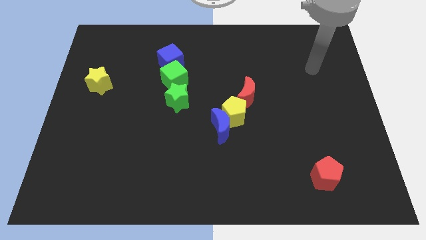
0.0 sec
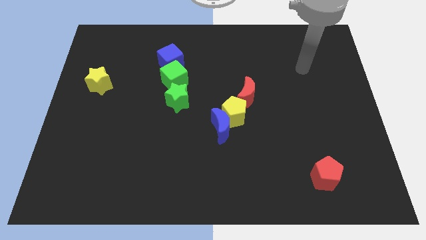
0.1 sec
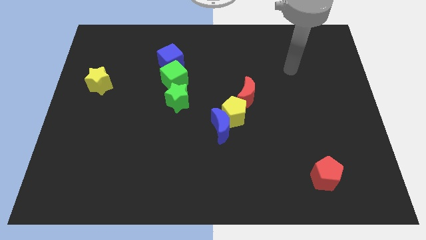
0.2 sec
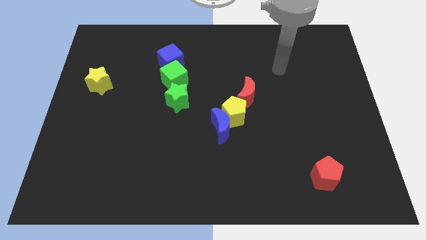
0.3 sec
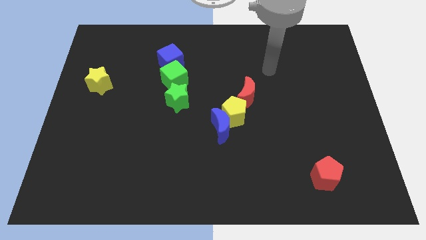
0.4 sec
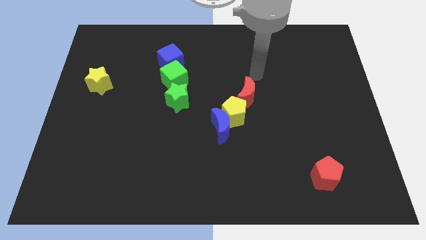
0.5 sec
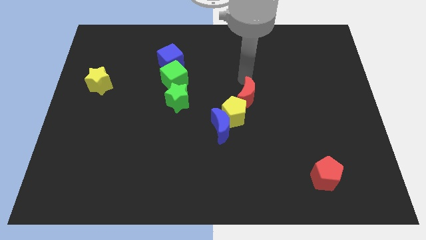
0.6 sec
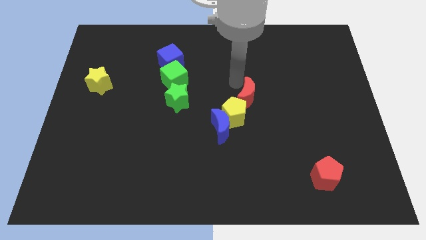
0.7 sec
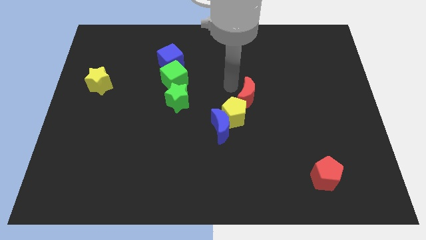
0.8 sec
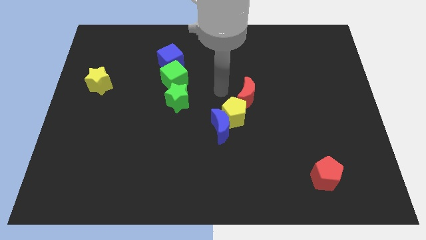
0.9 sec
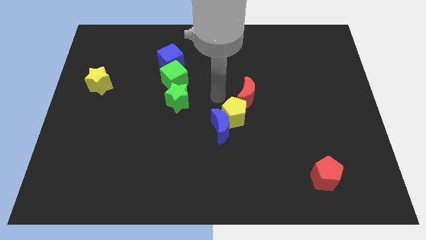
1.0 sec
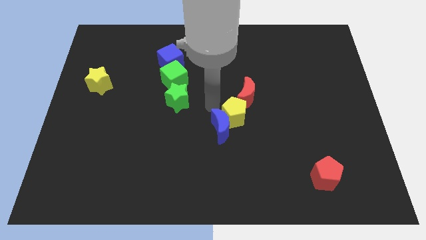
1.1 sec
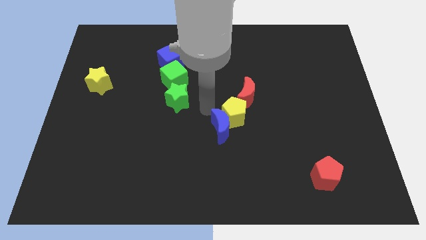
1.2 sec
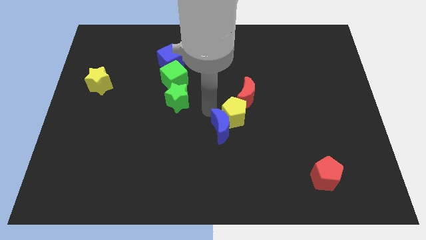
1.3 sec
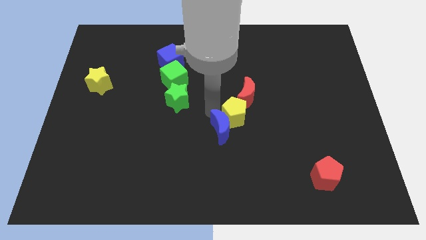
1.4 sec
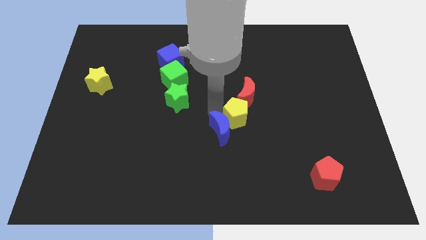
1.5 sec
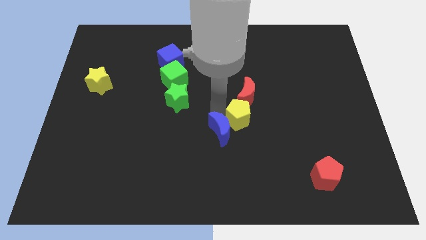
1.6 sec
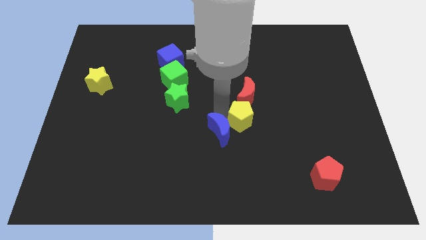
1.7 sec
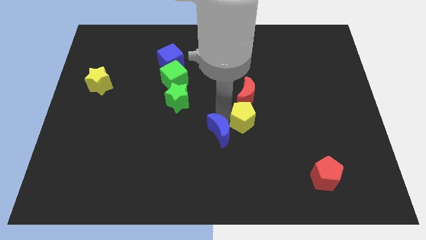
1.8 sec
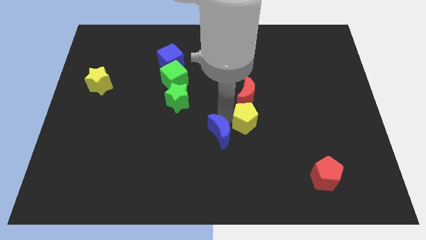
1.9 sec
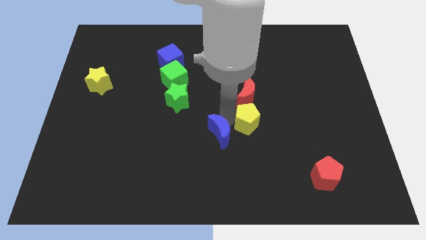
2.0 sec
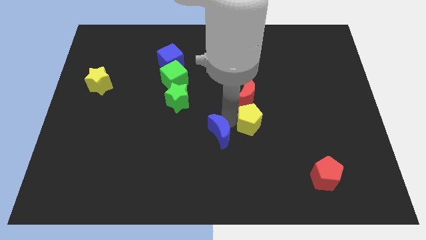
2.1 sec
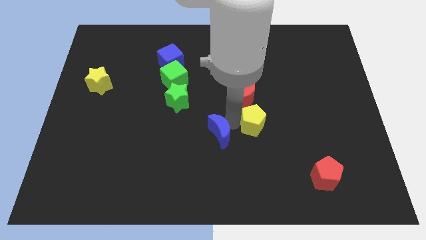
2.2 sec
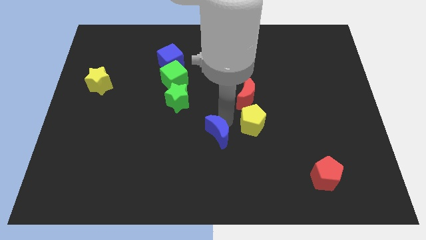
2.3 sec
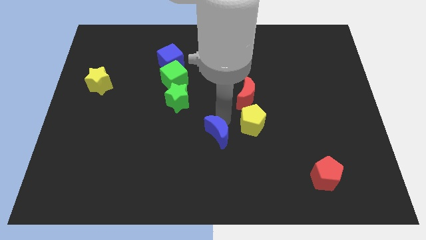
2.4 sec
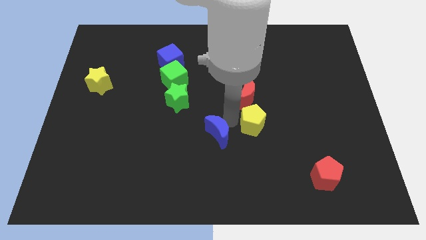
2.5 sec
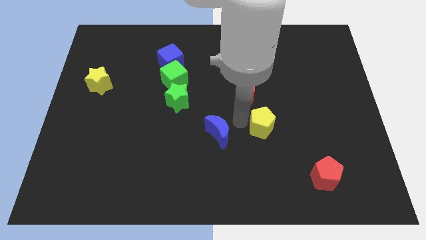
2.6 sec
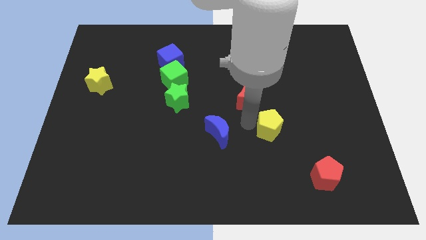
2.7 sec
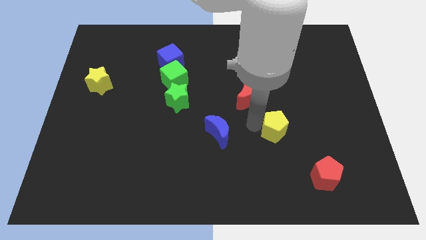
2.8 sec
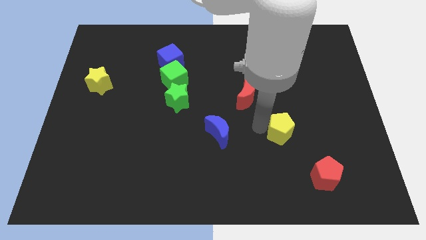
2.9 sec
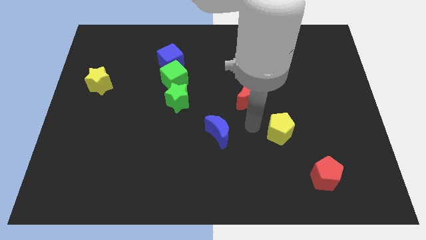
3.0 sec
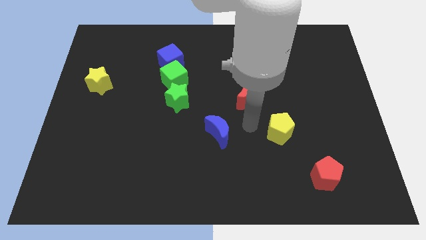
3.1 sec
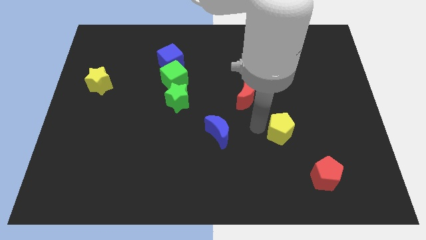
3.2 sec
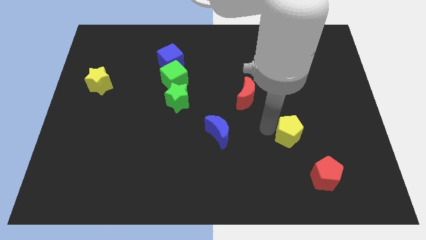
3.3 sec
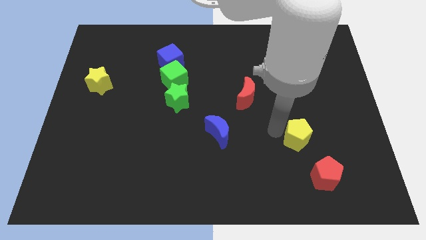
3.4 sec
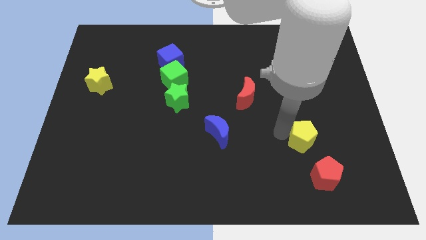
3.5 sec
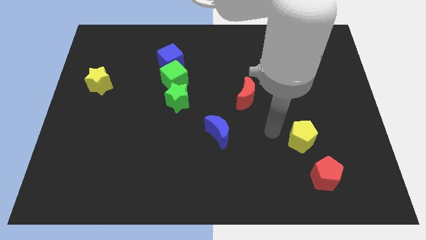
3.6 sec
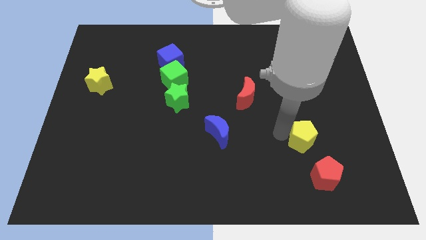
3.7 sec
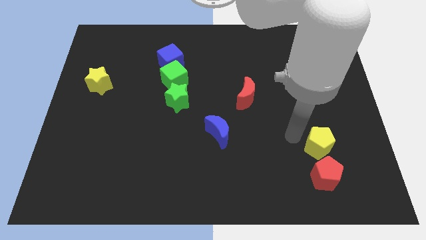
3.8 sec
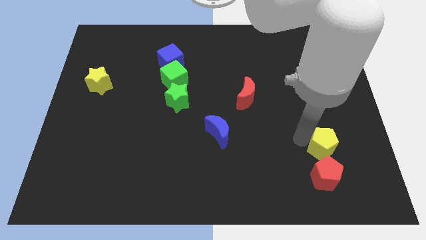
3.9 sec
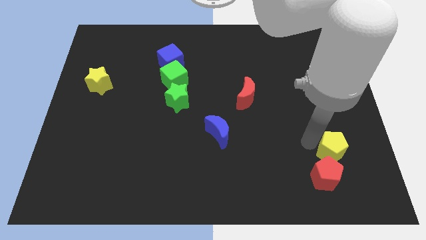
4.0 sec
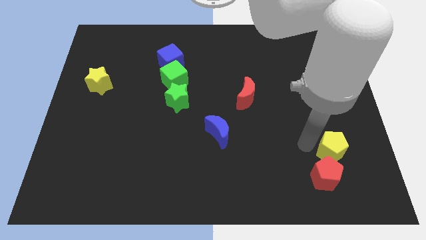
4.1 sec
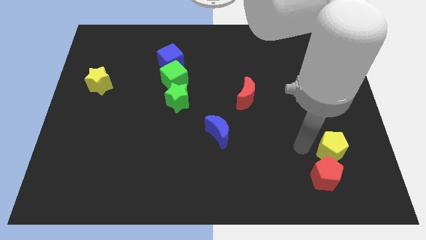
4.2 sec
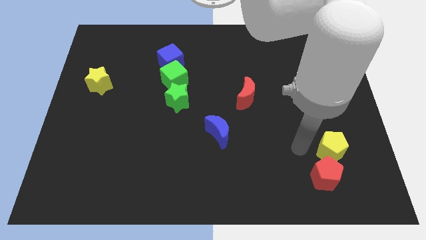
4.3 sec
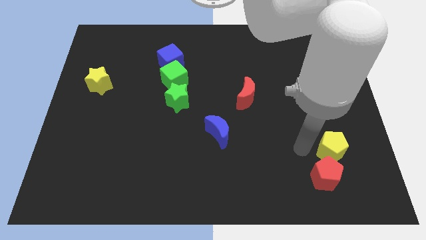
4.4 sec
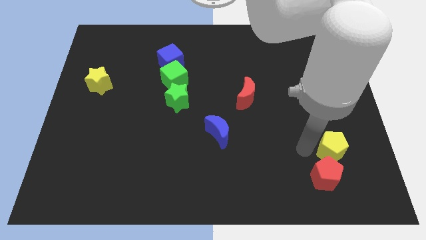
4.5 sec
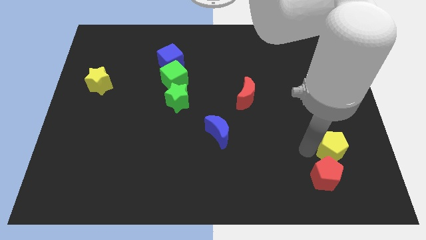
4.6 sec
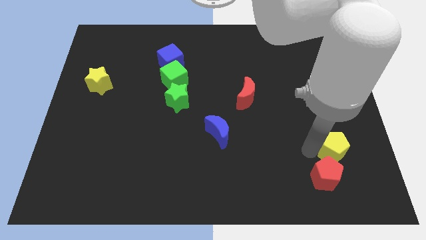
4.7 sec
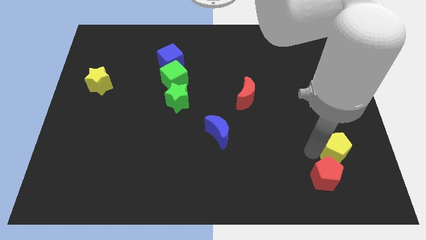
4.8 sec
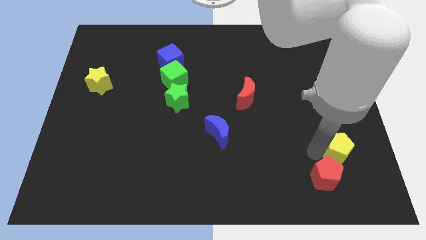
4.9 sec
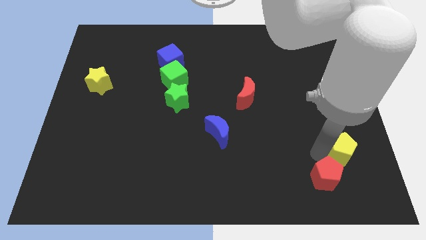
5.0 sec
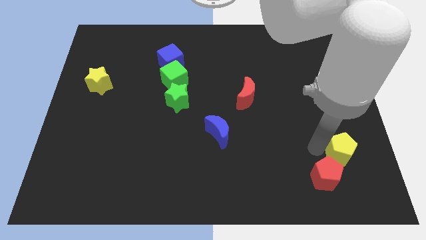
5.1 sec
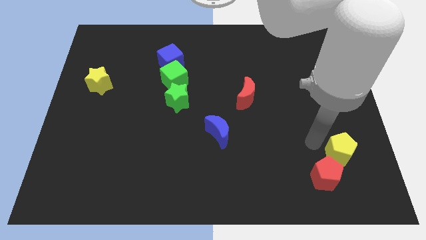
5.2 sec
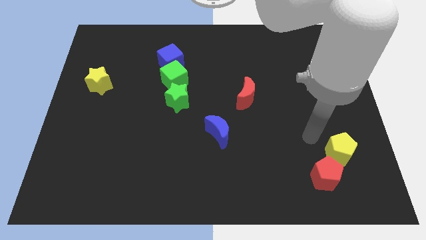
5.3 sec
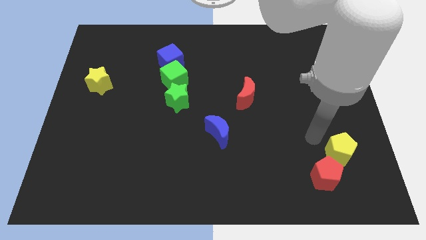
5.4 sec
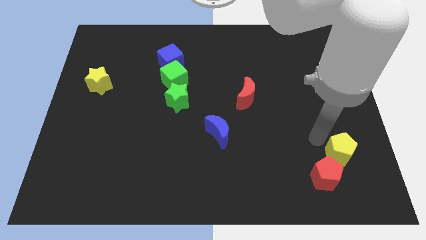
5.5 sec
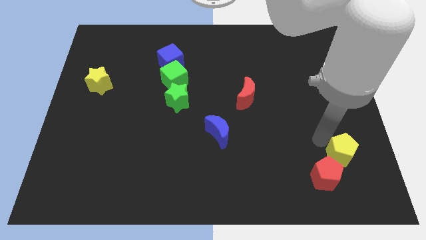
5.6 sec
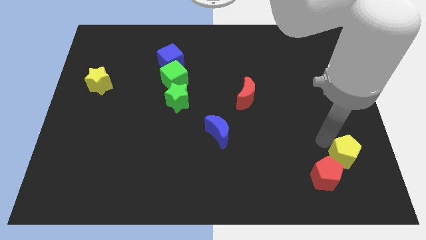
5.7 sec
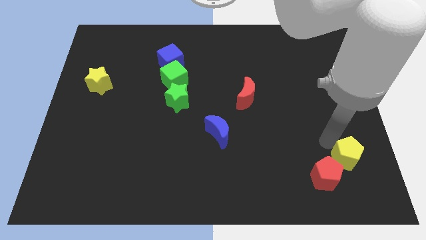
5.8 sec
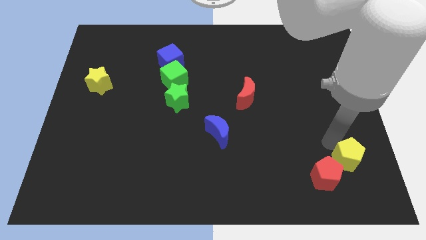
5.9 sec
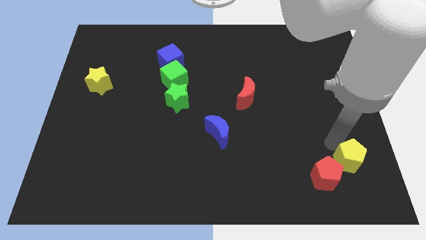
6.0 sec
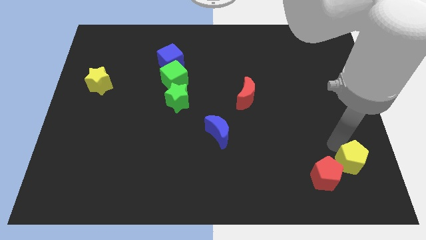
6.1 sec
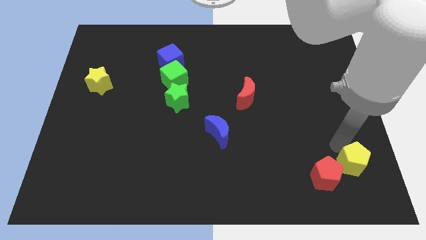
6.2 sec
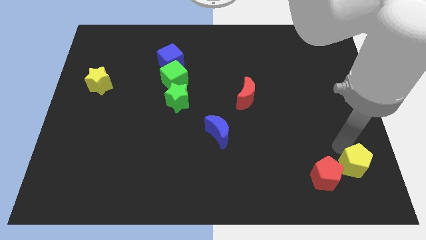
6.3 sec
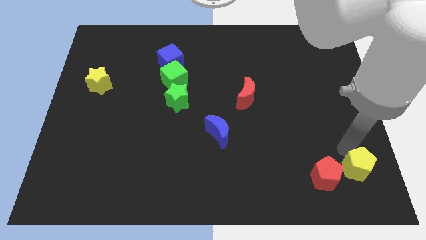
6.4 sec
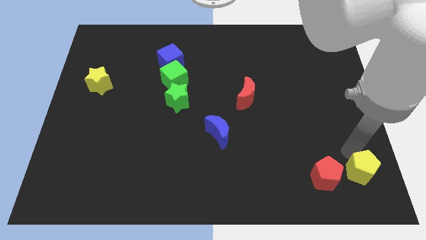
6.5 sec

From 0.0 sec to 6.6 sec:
slide the yellow pentagon to the bottom right of the board
